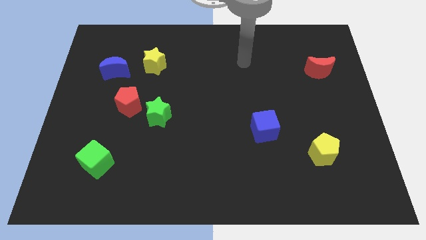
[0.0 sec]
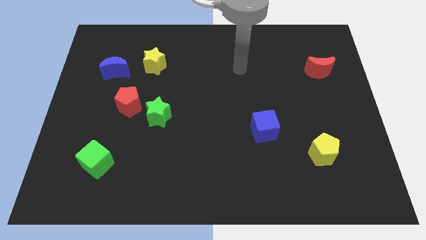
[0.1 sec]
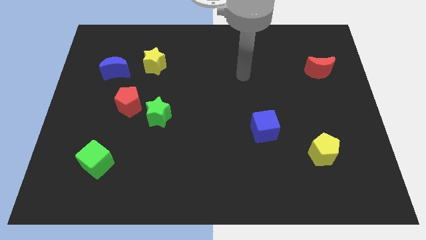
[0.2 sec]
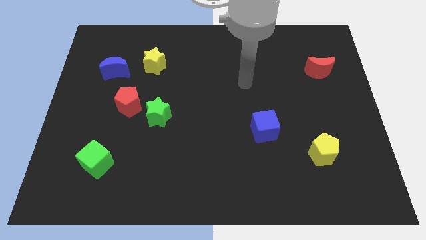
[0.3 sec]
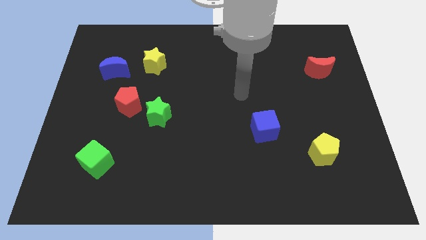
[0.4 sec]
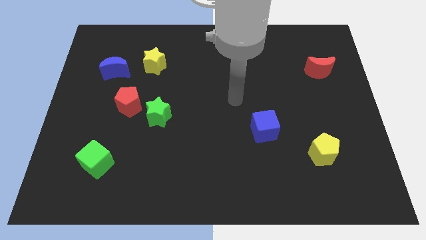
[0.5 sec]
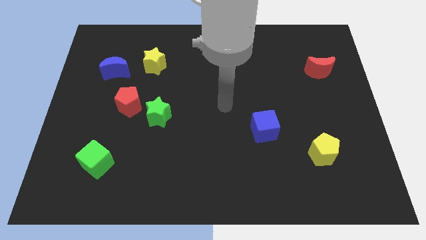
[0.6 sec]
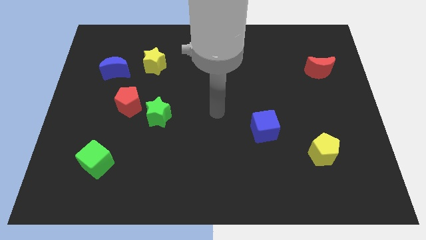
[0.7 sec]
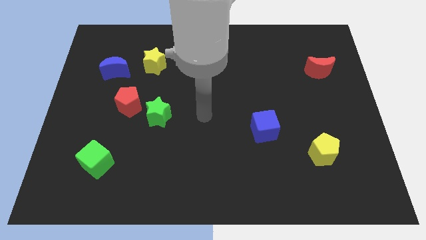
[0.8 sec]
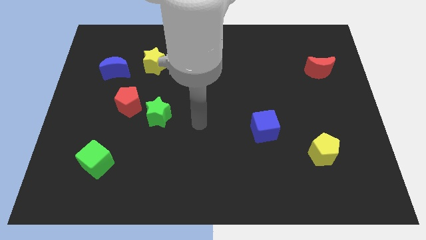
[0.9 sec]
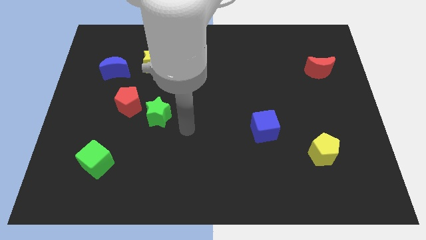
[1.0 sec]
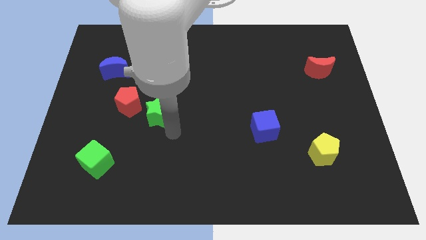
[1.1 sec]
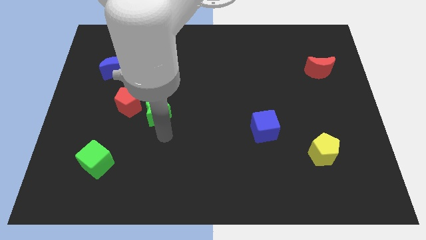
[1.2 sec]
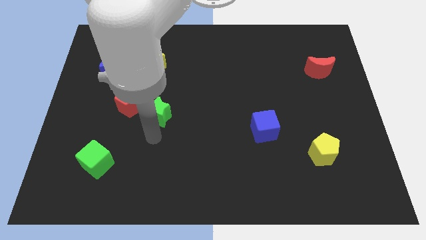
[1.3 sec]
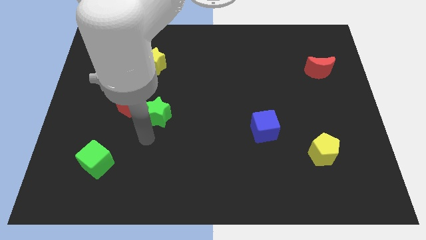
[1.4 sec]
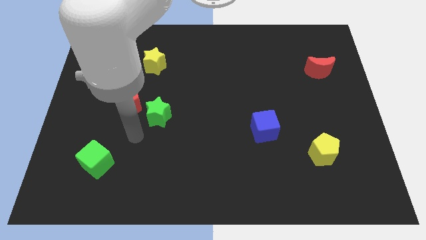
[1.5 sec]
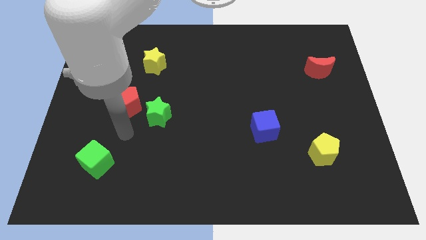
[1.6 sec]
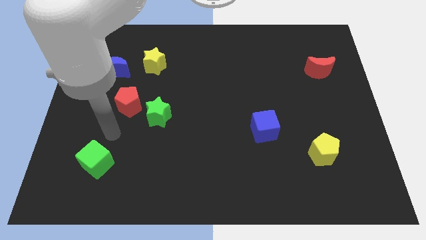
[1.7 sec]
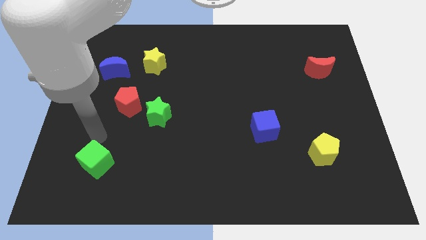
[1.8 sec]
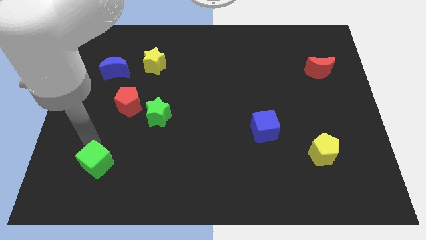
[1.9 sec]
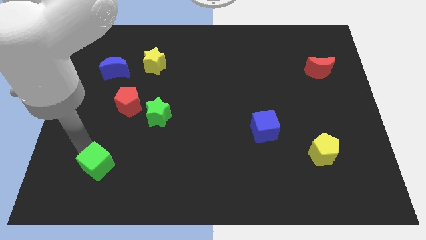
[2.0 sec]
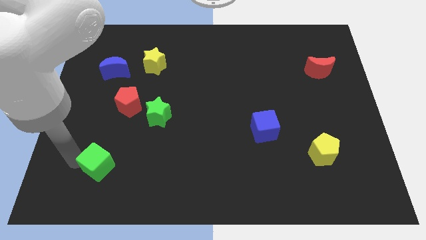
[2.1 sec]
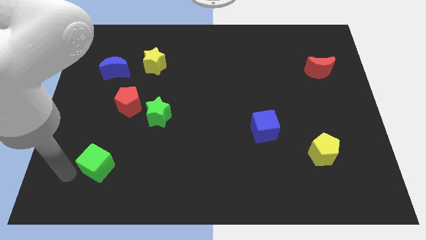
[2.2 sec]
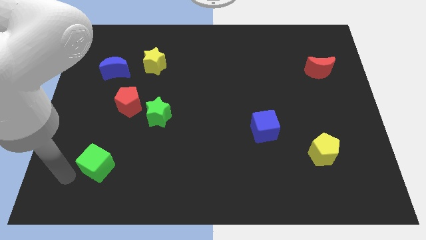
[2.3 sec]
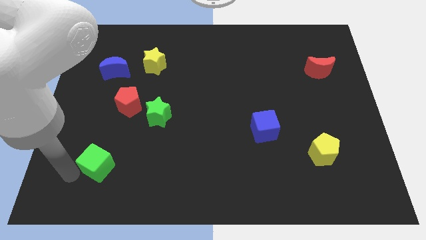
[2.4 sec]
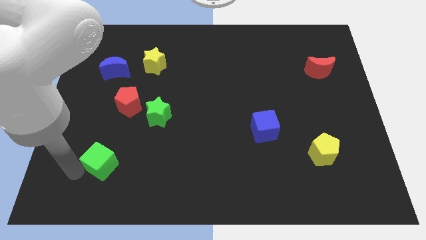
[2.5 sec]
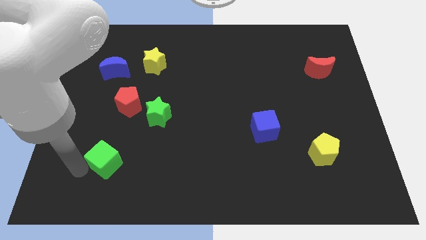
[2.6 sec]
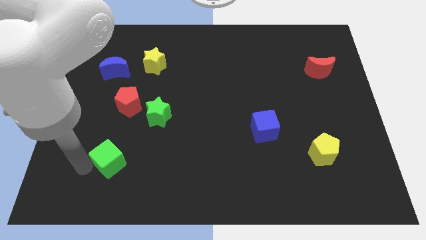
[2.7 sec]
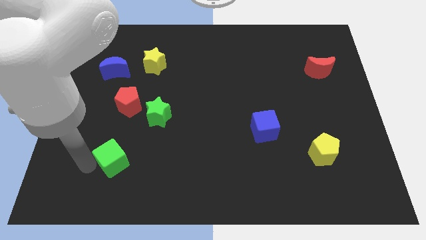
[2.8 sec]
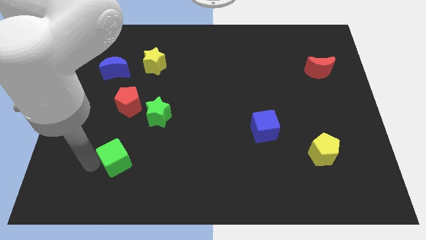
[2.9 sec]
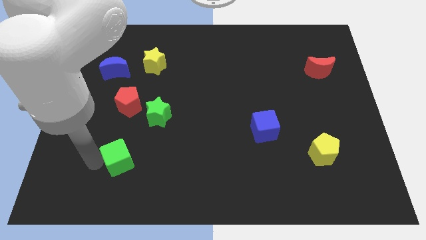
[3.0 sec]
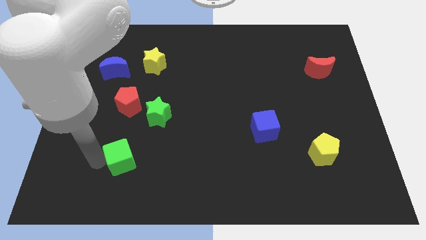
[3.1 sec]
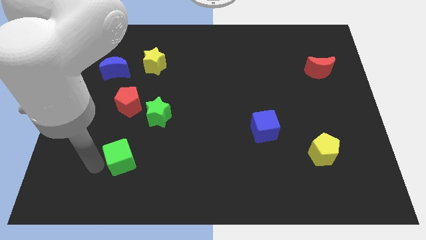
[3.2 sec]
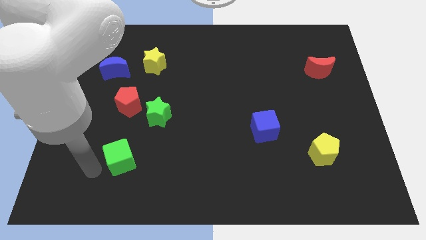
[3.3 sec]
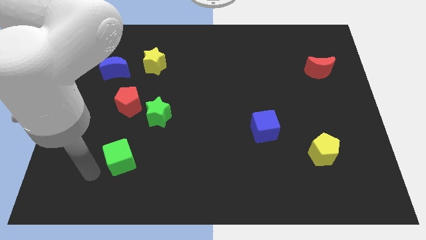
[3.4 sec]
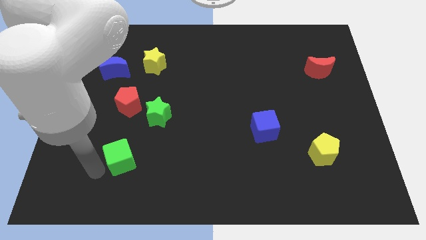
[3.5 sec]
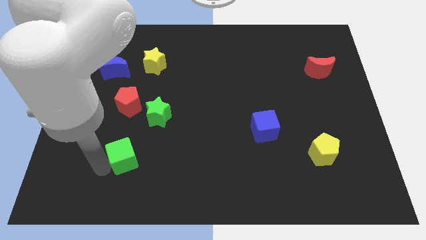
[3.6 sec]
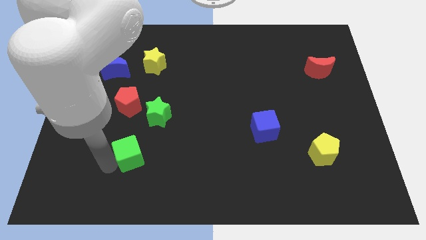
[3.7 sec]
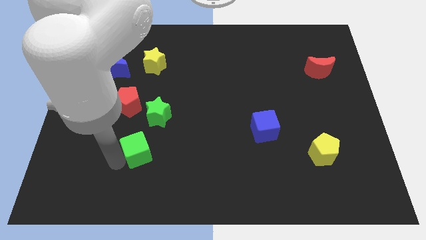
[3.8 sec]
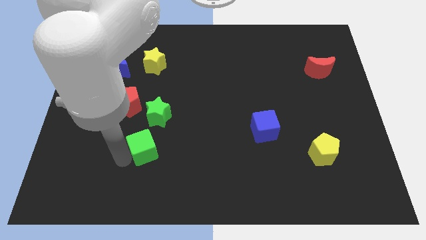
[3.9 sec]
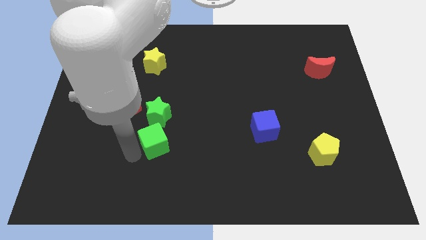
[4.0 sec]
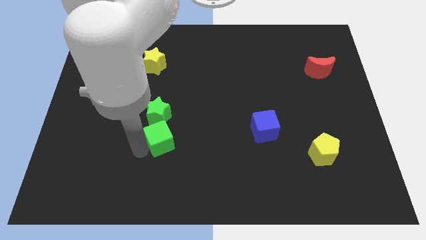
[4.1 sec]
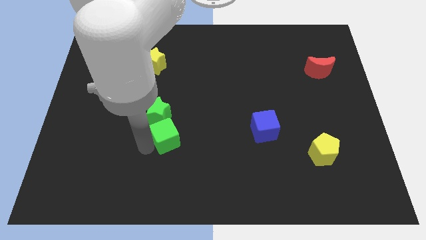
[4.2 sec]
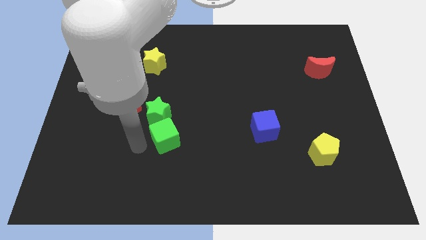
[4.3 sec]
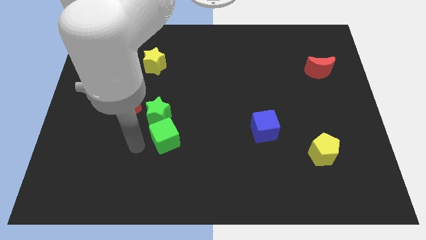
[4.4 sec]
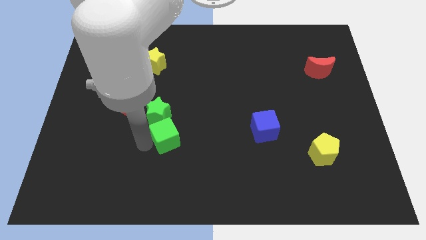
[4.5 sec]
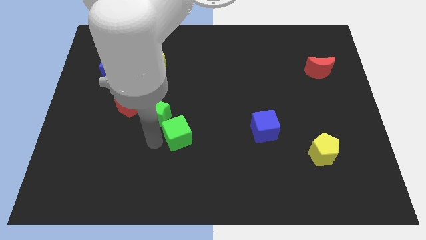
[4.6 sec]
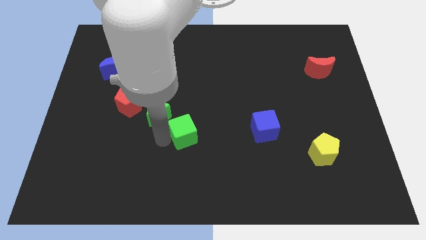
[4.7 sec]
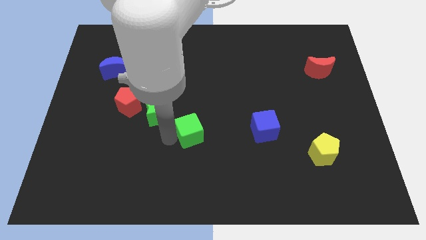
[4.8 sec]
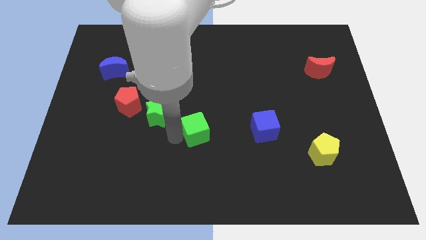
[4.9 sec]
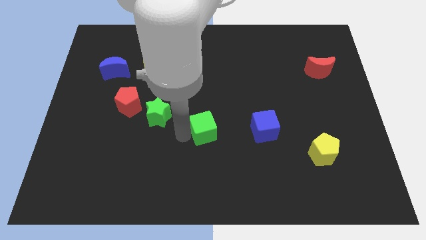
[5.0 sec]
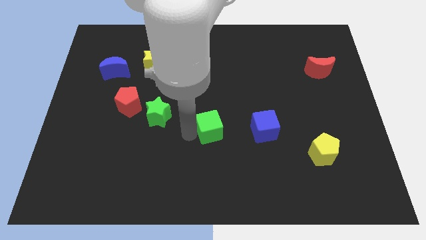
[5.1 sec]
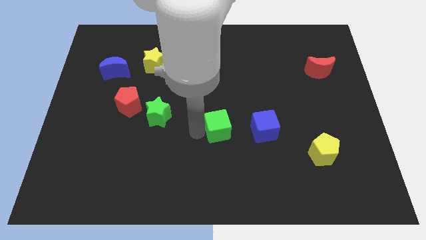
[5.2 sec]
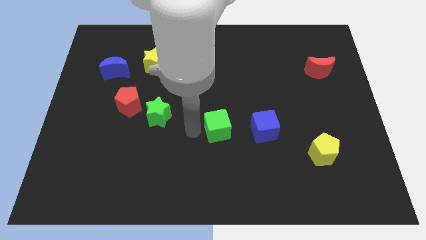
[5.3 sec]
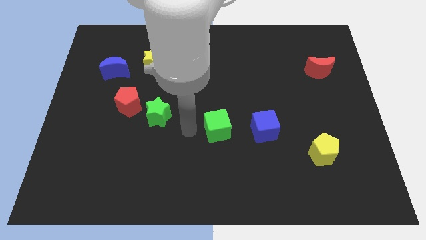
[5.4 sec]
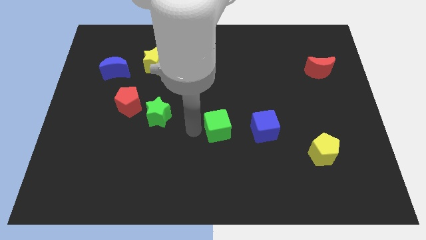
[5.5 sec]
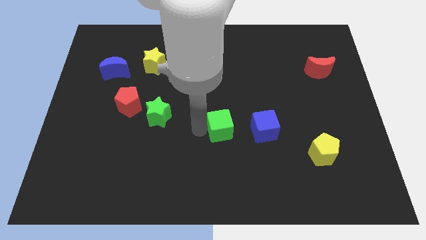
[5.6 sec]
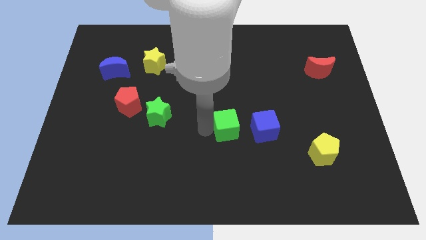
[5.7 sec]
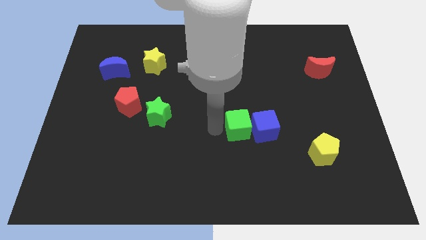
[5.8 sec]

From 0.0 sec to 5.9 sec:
slide the green cube next to the blue cube

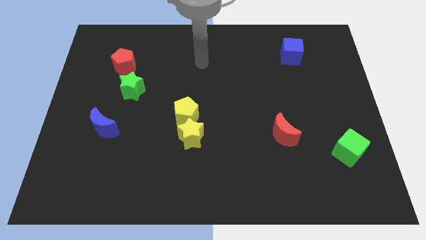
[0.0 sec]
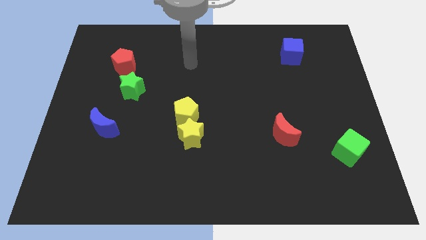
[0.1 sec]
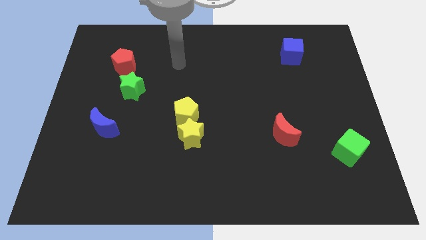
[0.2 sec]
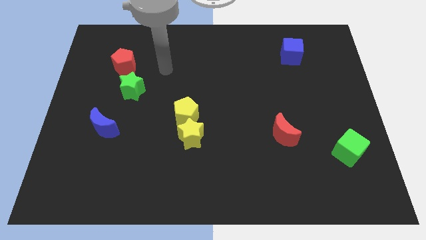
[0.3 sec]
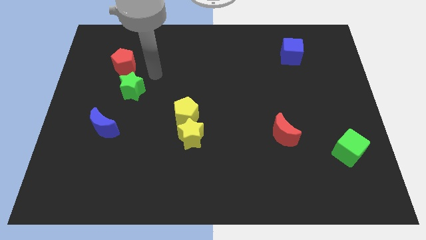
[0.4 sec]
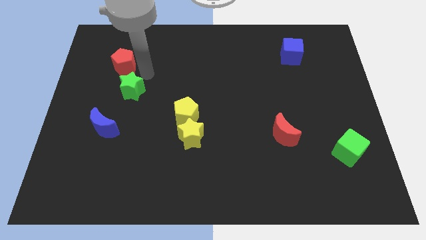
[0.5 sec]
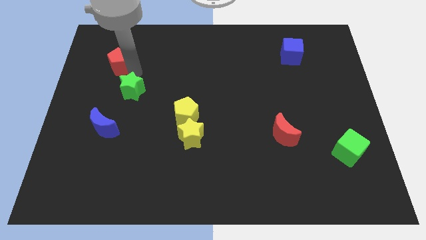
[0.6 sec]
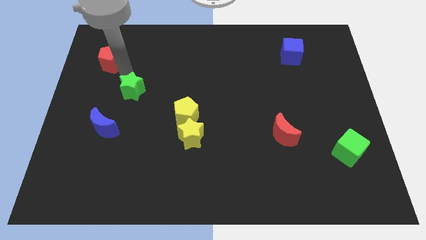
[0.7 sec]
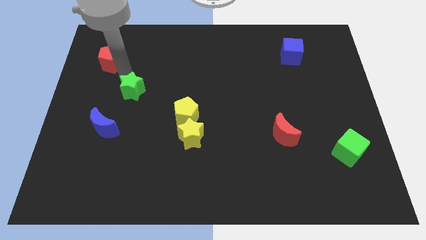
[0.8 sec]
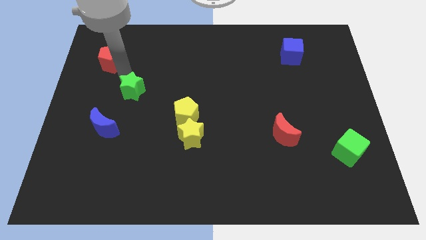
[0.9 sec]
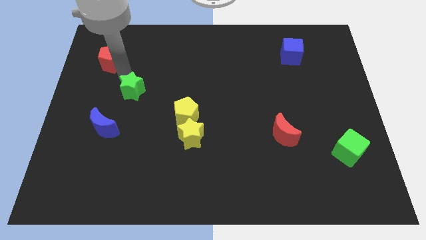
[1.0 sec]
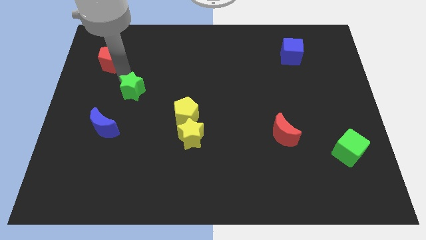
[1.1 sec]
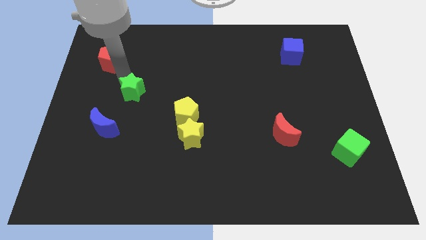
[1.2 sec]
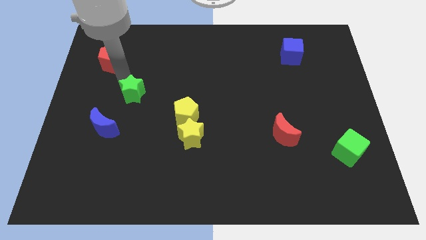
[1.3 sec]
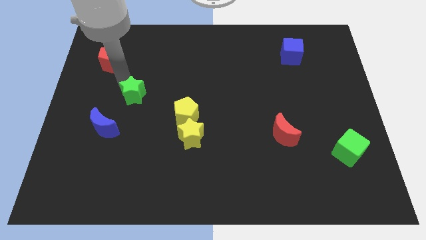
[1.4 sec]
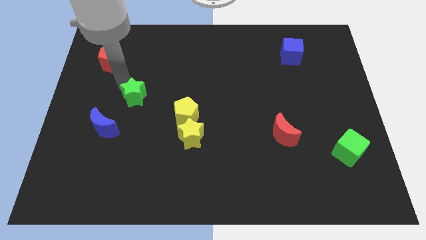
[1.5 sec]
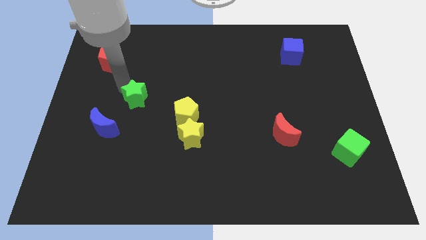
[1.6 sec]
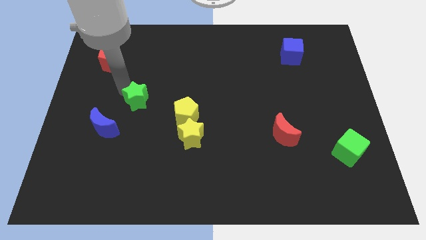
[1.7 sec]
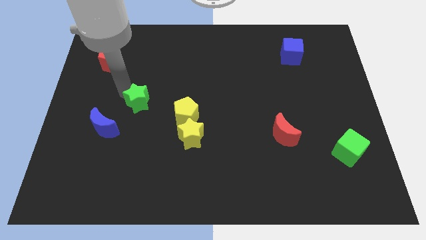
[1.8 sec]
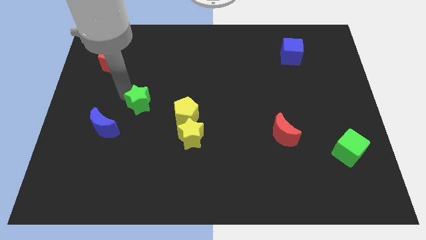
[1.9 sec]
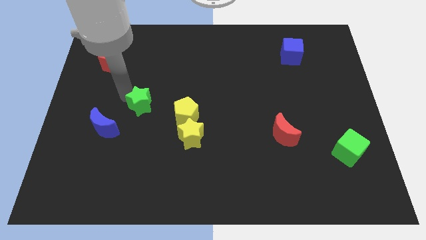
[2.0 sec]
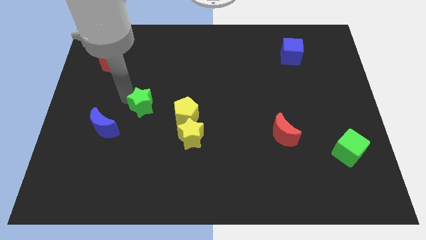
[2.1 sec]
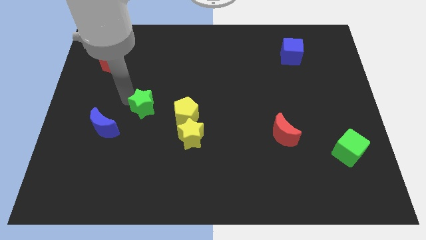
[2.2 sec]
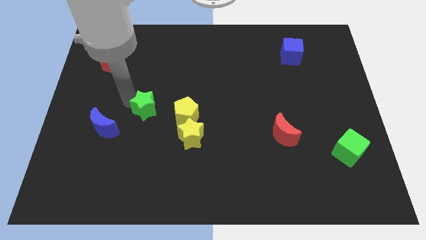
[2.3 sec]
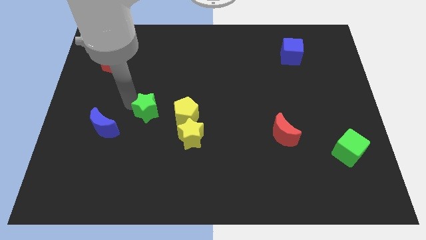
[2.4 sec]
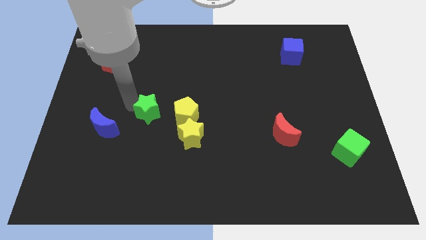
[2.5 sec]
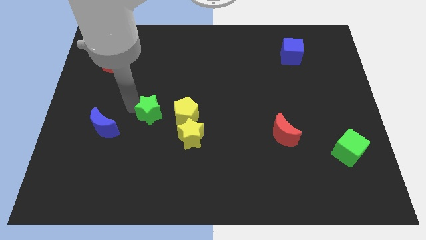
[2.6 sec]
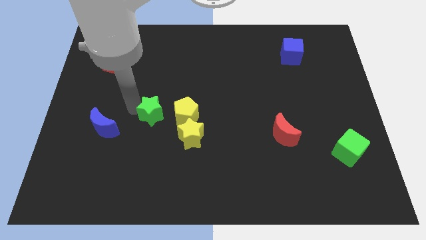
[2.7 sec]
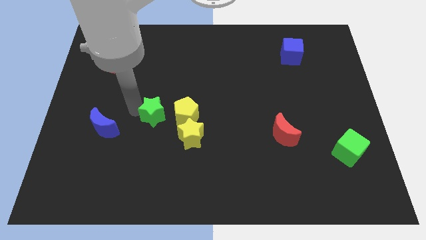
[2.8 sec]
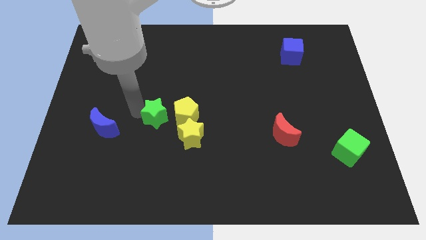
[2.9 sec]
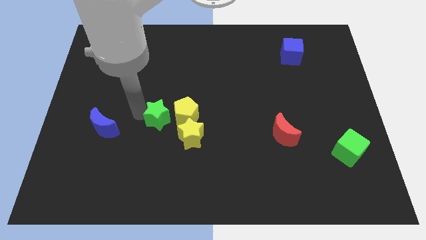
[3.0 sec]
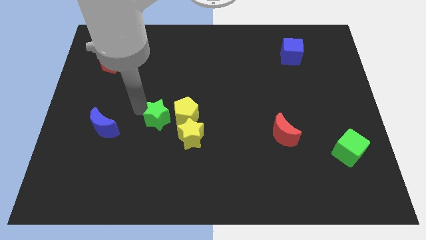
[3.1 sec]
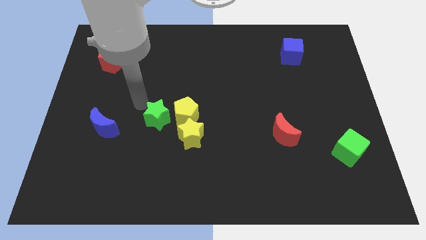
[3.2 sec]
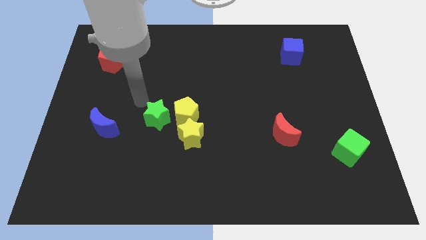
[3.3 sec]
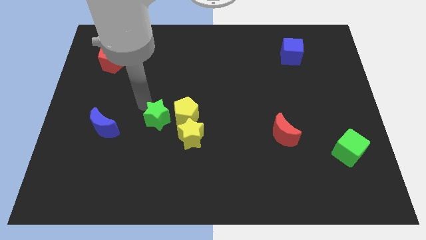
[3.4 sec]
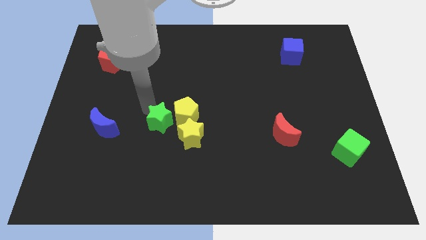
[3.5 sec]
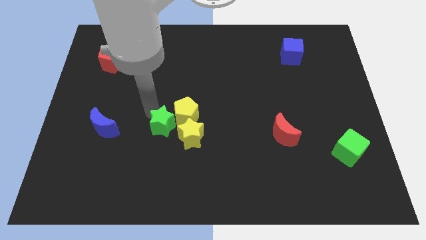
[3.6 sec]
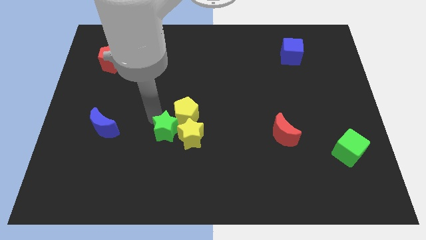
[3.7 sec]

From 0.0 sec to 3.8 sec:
push the green star to the yellow star
